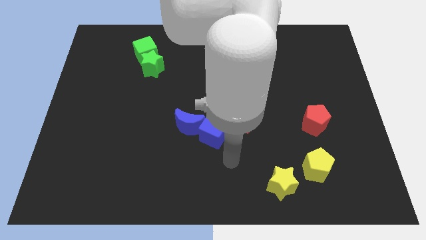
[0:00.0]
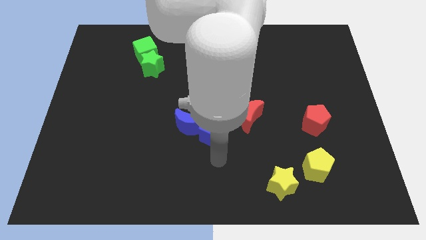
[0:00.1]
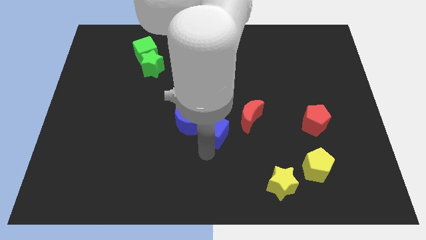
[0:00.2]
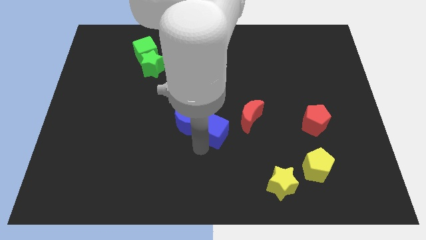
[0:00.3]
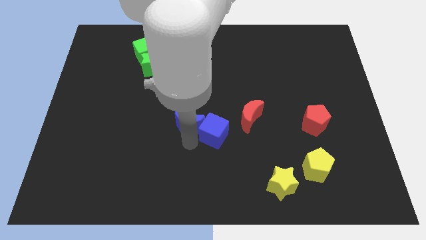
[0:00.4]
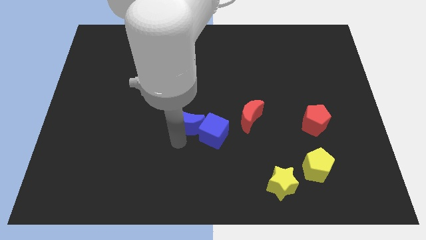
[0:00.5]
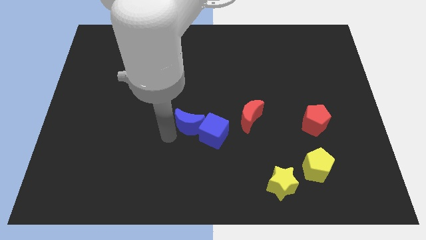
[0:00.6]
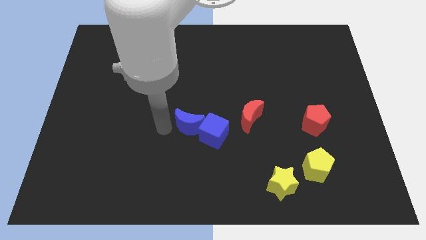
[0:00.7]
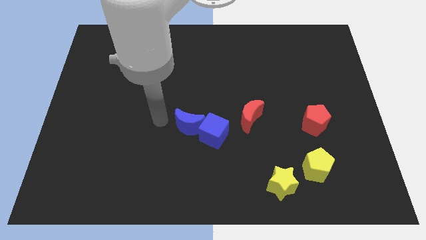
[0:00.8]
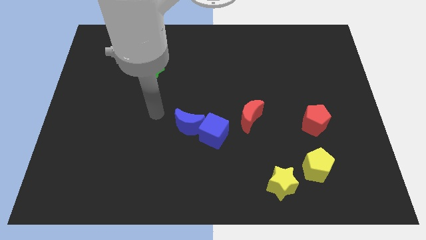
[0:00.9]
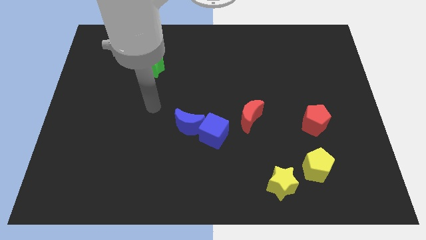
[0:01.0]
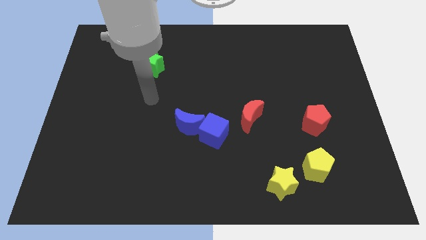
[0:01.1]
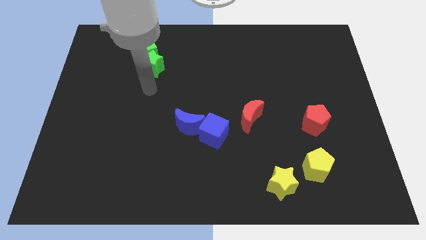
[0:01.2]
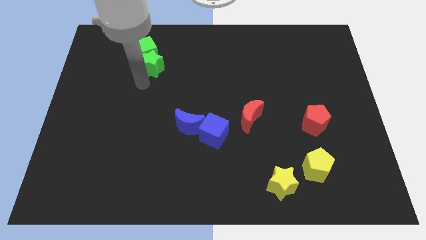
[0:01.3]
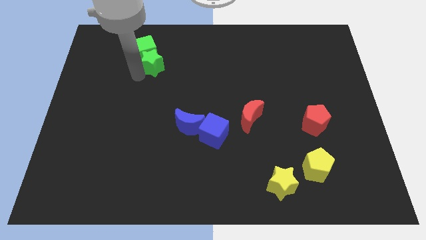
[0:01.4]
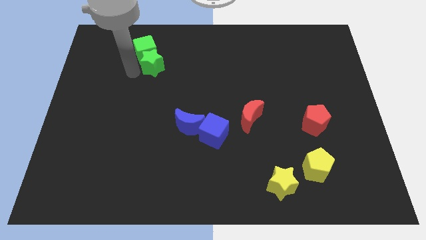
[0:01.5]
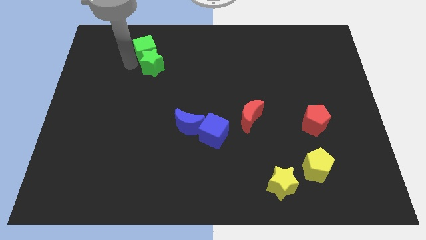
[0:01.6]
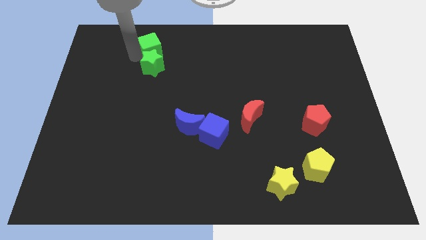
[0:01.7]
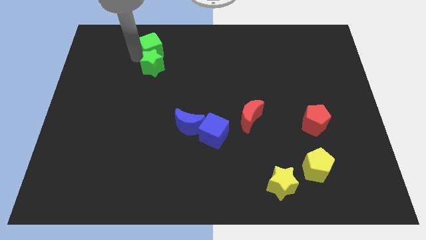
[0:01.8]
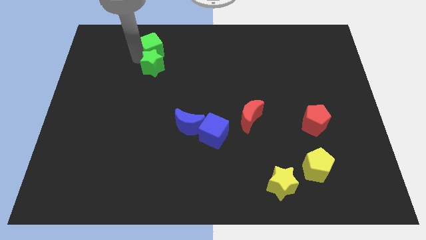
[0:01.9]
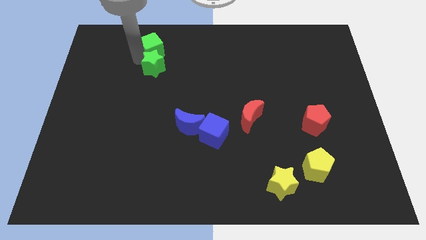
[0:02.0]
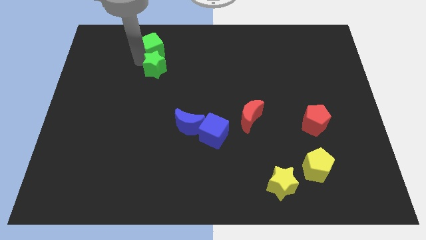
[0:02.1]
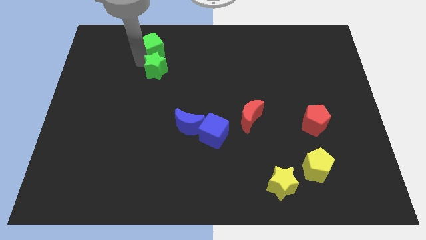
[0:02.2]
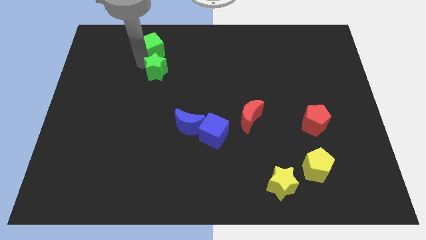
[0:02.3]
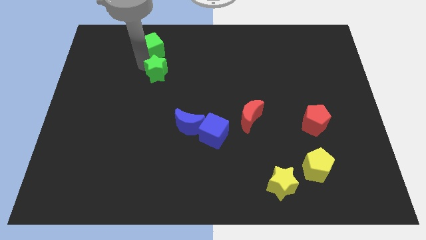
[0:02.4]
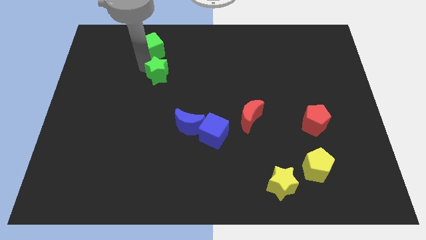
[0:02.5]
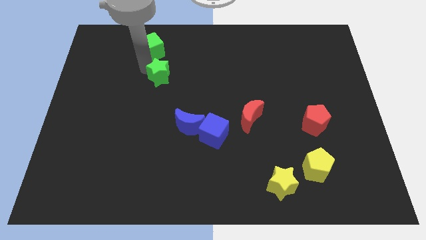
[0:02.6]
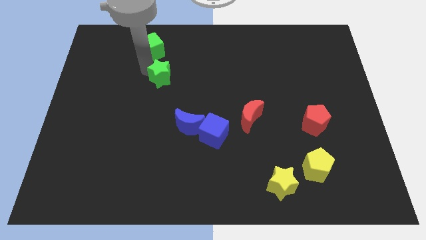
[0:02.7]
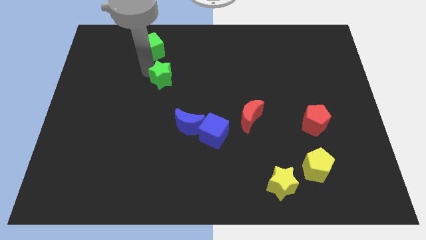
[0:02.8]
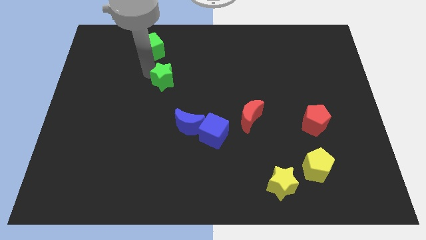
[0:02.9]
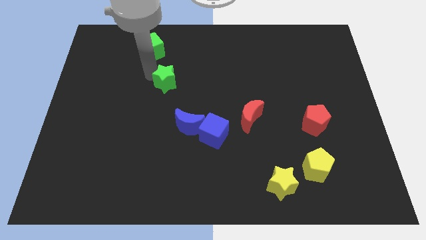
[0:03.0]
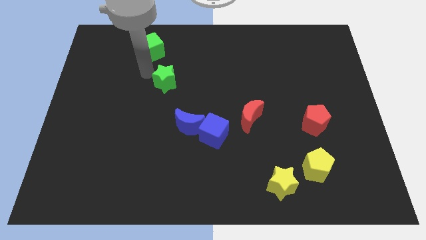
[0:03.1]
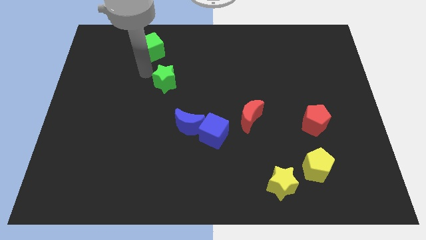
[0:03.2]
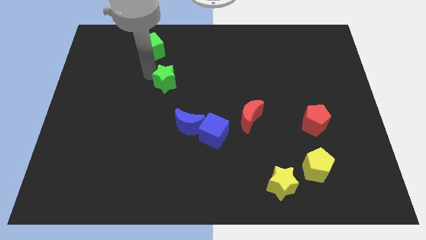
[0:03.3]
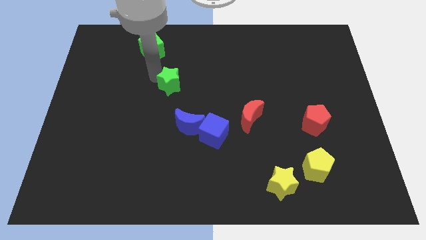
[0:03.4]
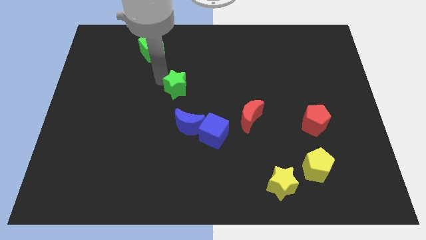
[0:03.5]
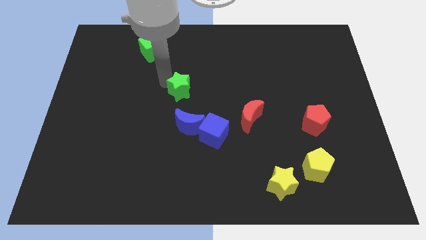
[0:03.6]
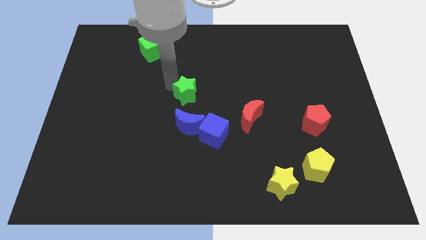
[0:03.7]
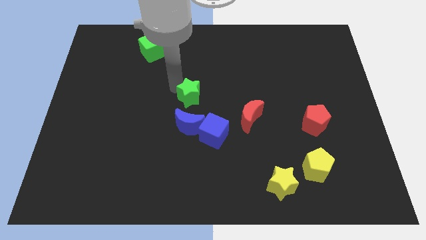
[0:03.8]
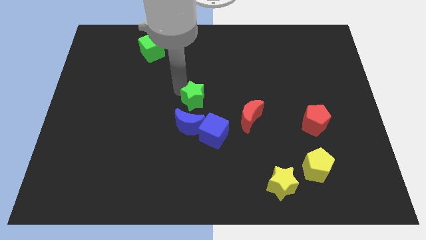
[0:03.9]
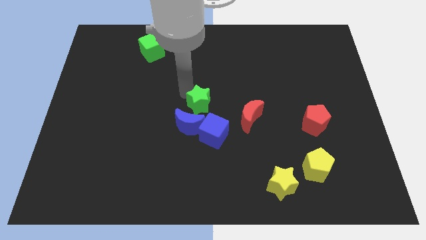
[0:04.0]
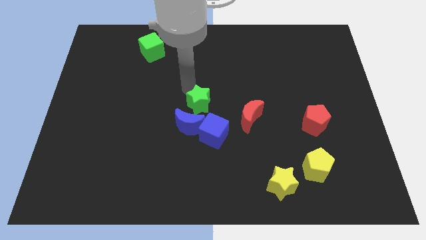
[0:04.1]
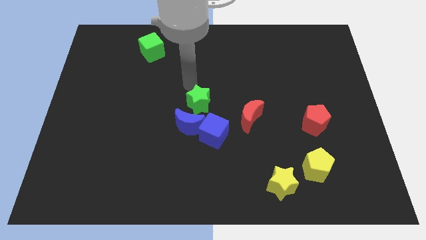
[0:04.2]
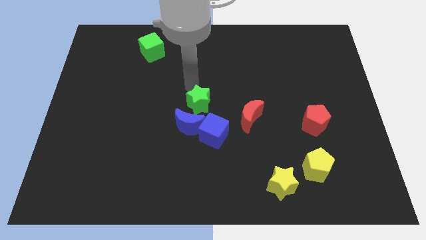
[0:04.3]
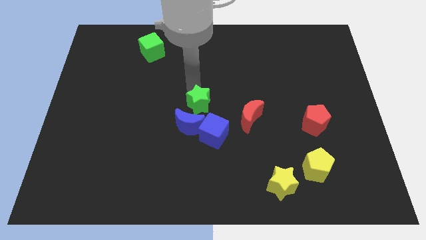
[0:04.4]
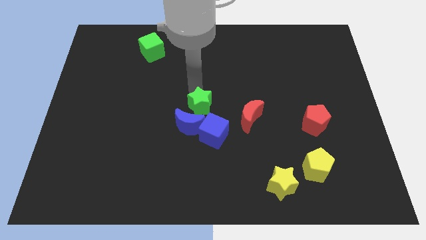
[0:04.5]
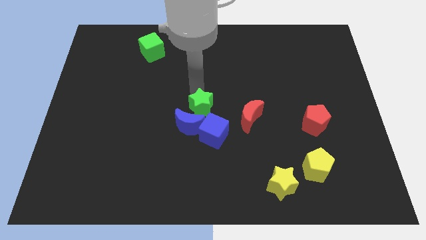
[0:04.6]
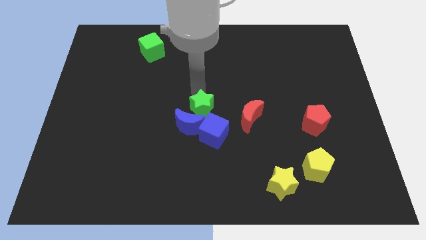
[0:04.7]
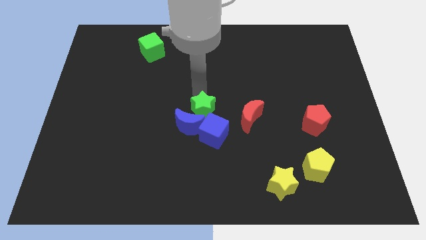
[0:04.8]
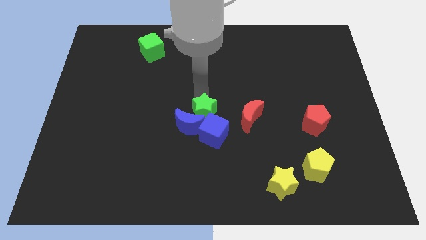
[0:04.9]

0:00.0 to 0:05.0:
move the green star next to the blue cube

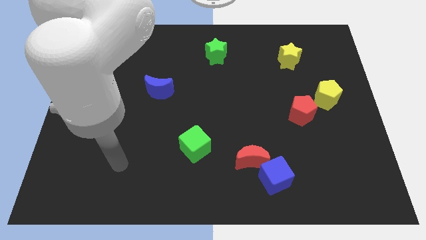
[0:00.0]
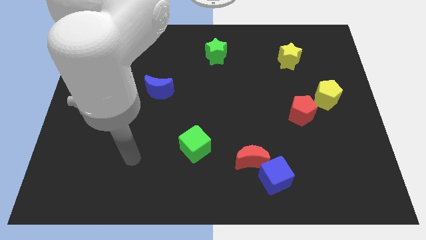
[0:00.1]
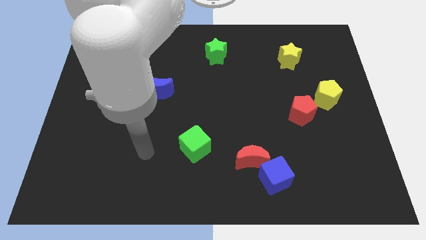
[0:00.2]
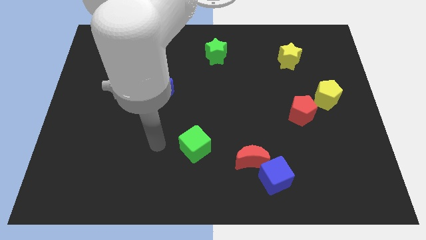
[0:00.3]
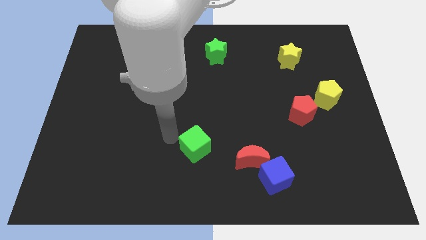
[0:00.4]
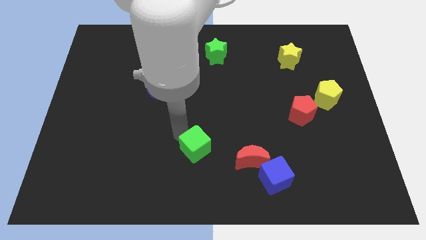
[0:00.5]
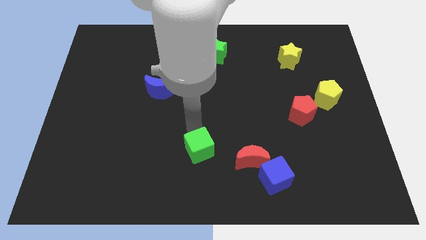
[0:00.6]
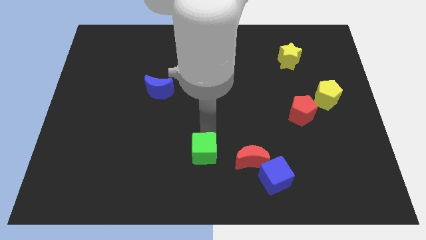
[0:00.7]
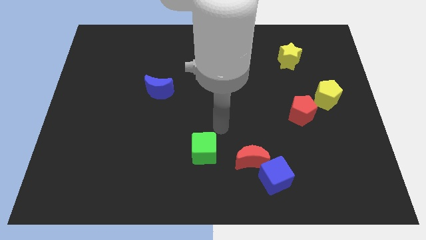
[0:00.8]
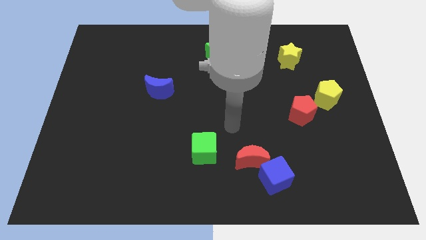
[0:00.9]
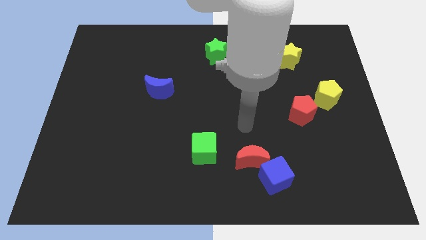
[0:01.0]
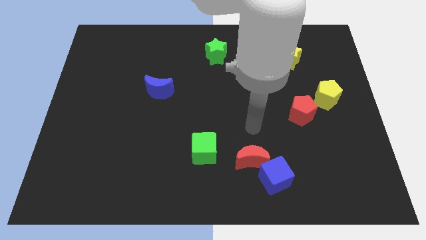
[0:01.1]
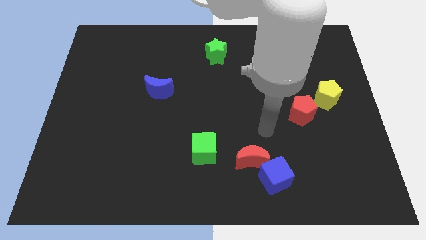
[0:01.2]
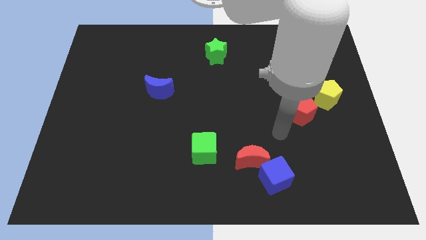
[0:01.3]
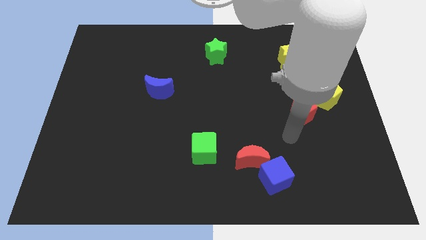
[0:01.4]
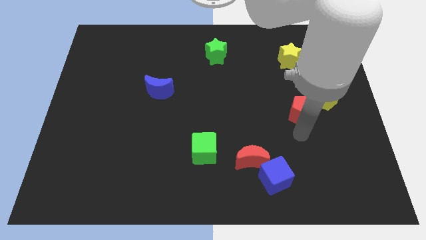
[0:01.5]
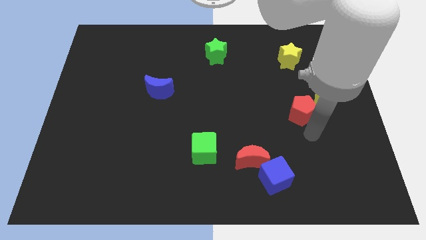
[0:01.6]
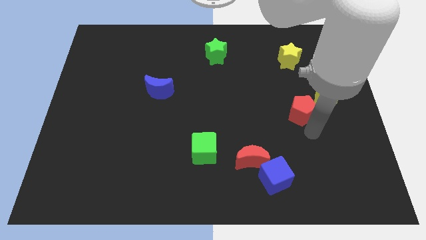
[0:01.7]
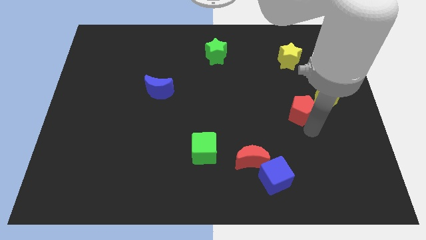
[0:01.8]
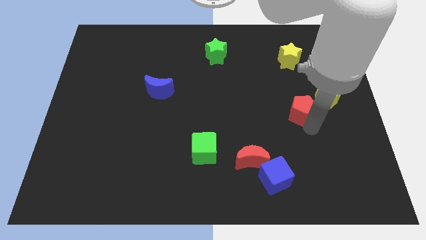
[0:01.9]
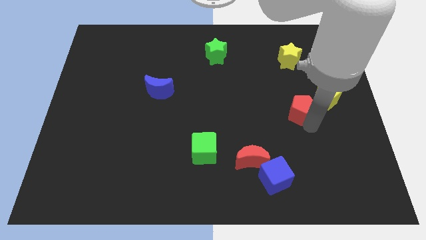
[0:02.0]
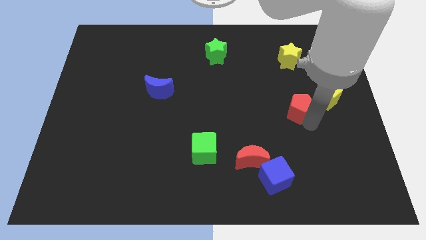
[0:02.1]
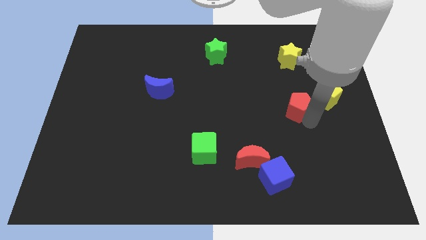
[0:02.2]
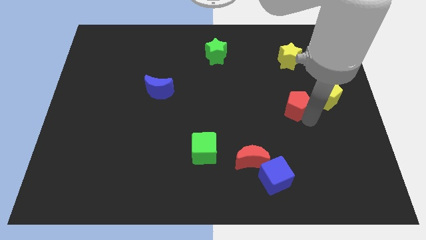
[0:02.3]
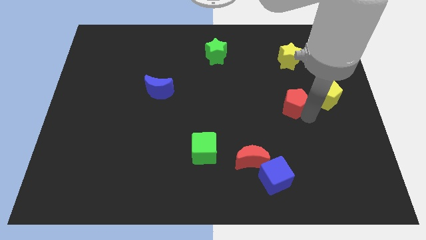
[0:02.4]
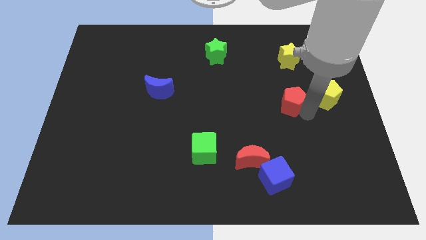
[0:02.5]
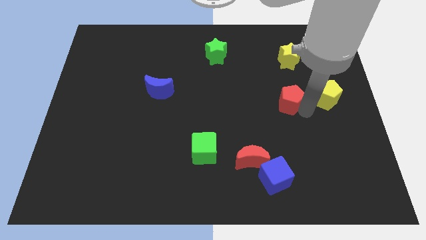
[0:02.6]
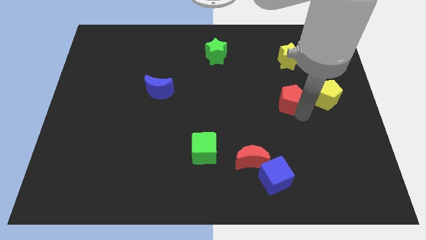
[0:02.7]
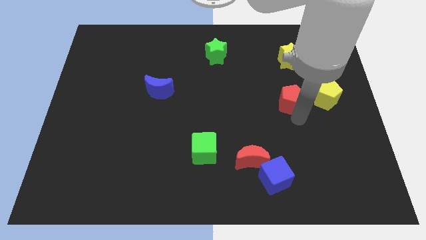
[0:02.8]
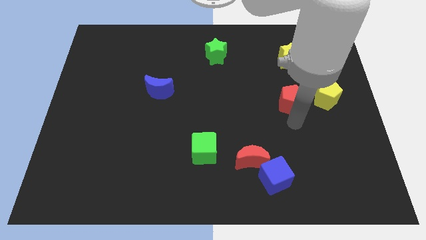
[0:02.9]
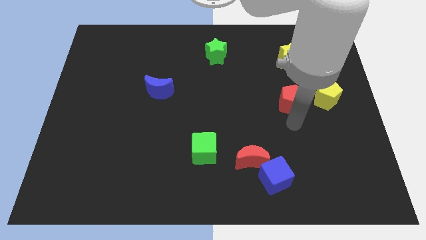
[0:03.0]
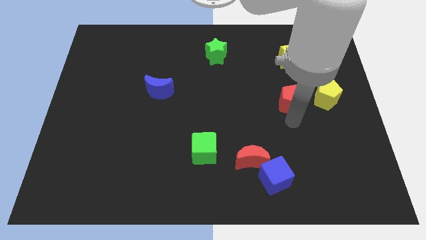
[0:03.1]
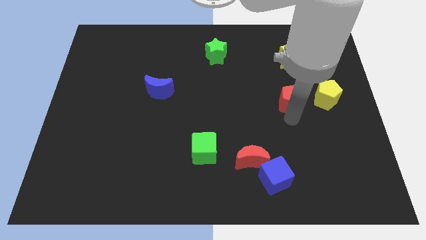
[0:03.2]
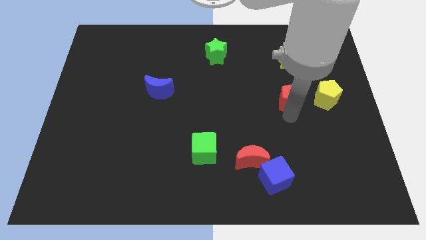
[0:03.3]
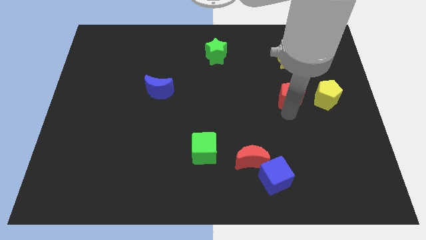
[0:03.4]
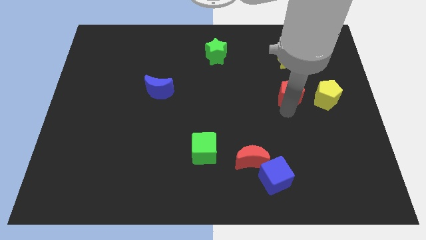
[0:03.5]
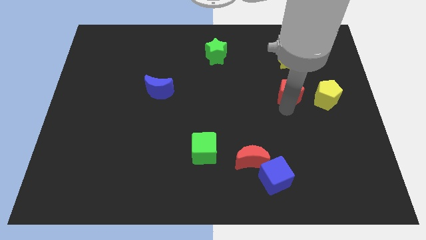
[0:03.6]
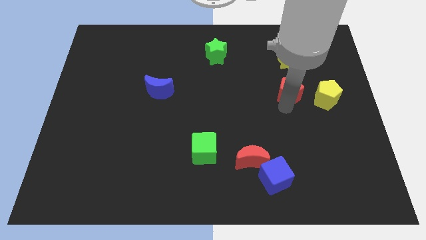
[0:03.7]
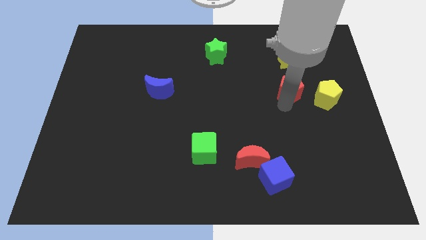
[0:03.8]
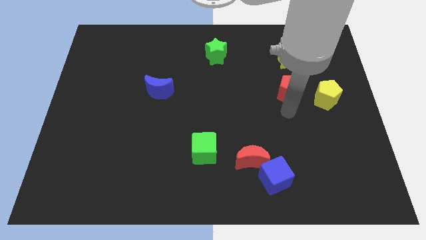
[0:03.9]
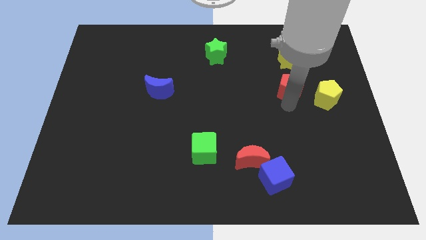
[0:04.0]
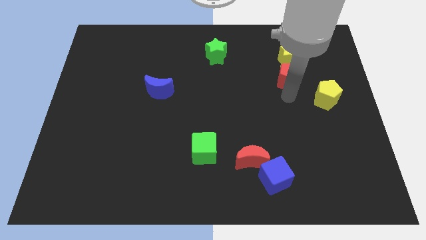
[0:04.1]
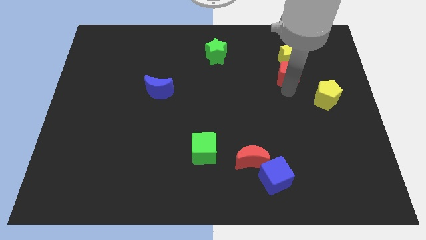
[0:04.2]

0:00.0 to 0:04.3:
move the red pentagon close to the yellow star
